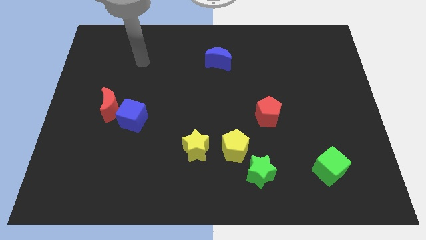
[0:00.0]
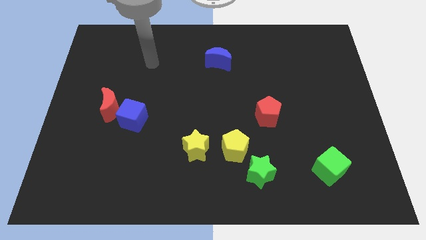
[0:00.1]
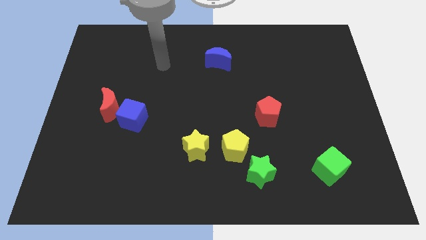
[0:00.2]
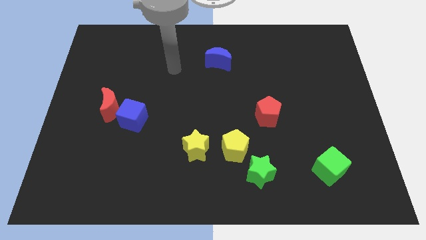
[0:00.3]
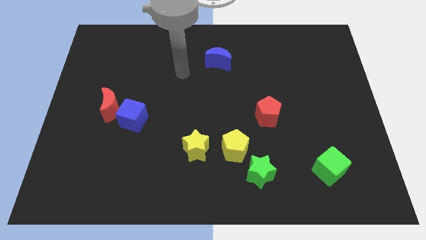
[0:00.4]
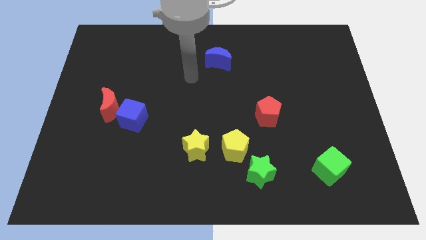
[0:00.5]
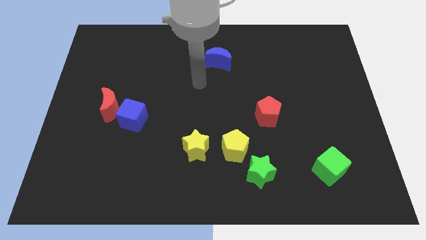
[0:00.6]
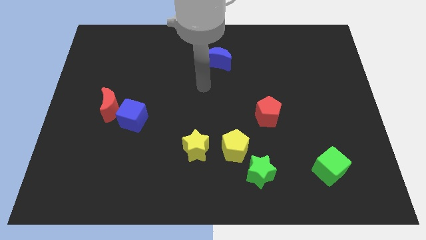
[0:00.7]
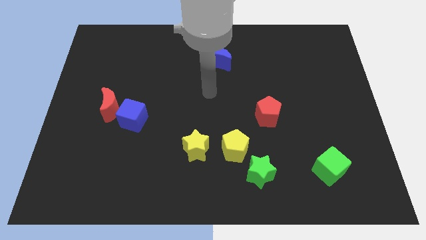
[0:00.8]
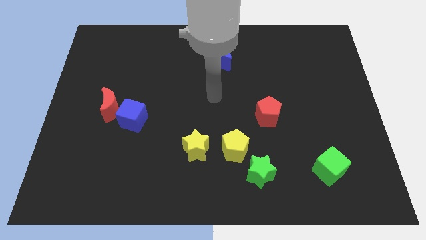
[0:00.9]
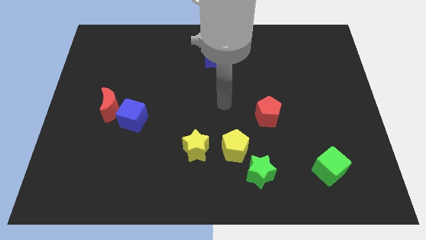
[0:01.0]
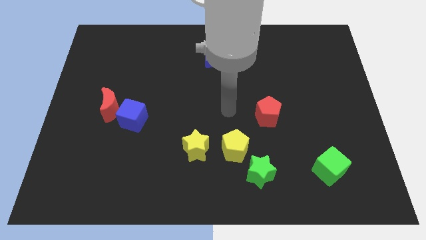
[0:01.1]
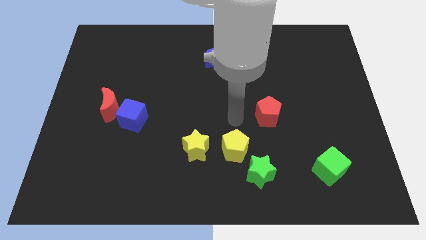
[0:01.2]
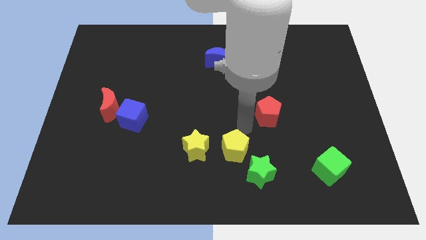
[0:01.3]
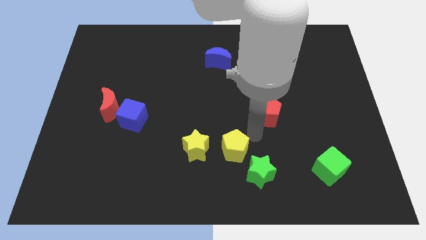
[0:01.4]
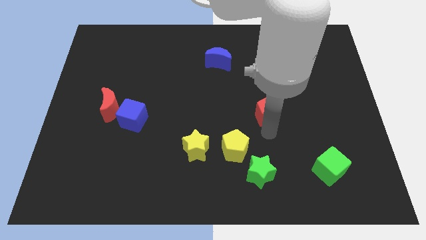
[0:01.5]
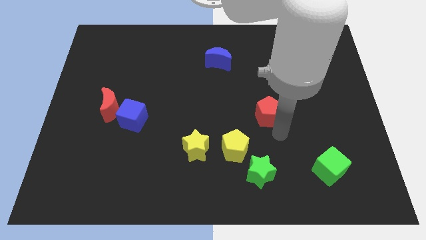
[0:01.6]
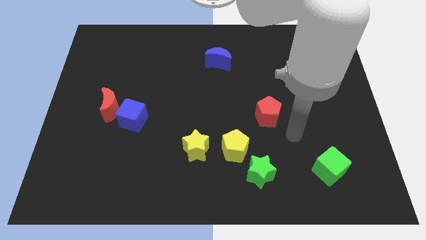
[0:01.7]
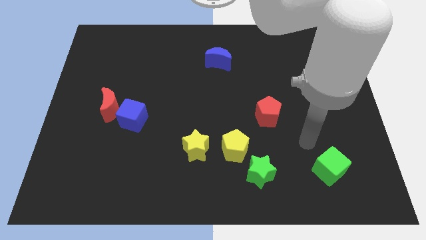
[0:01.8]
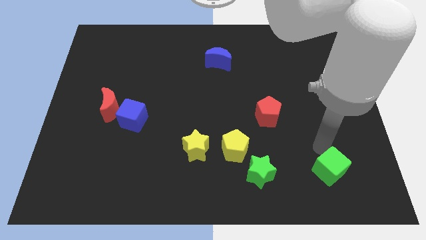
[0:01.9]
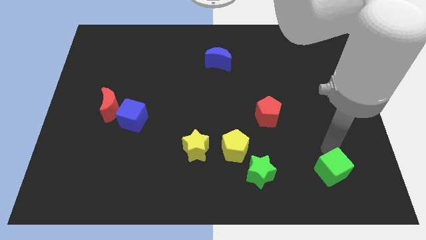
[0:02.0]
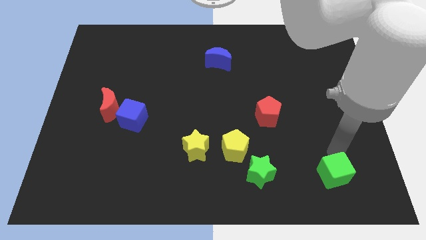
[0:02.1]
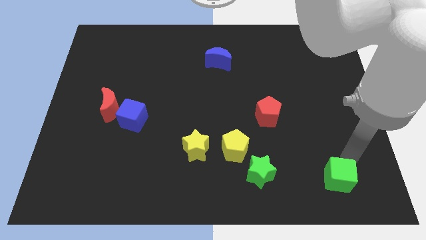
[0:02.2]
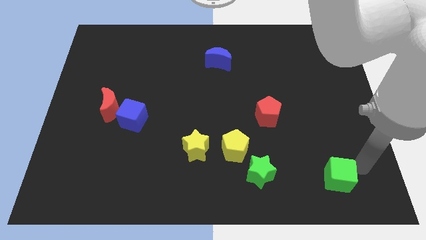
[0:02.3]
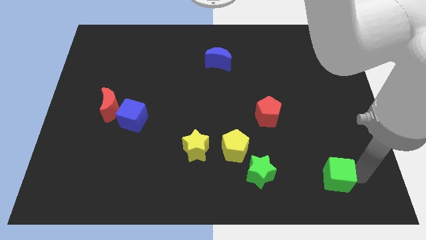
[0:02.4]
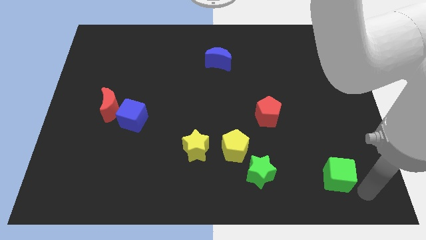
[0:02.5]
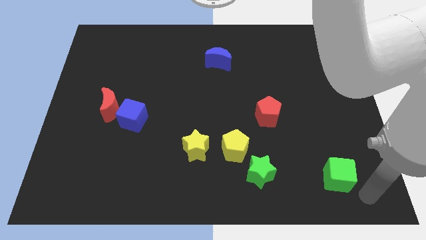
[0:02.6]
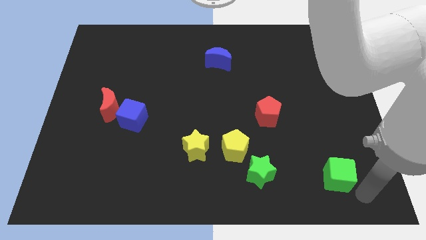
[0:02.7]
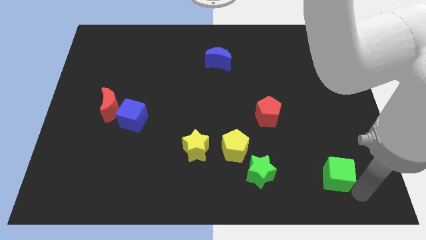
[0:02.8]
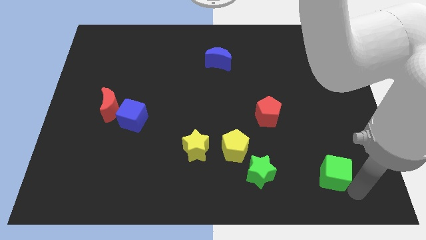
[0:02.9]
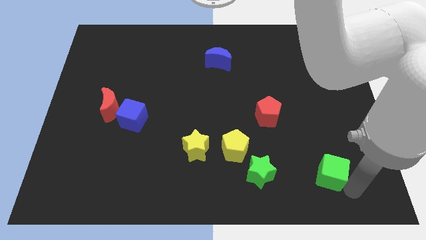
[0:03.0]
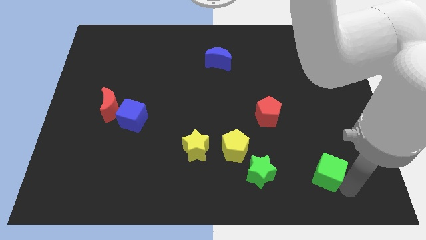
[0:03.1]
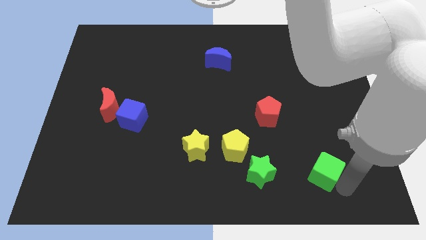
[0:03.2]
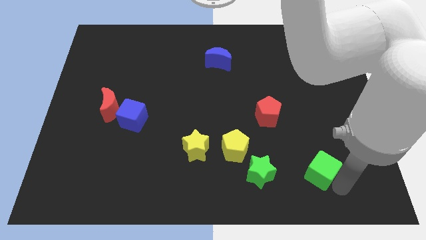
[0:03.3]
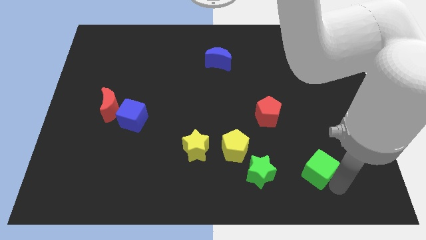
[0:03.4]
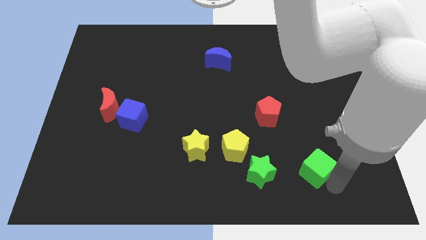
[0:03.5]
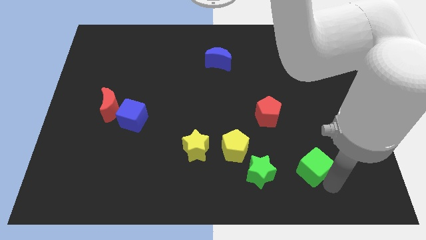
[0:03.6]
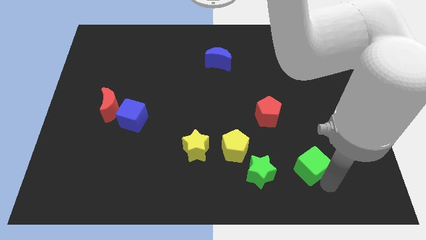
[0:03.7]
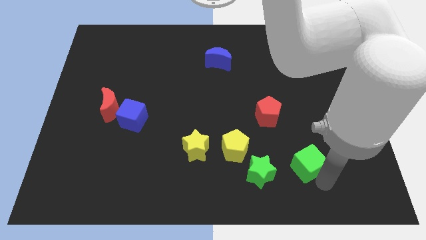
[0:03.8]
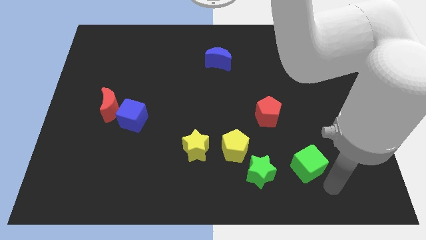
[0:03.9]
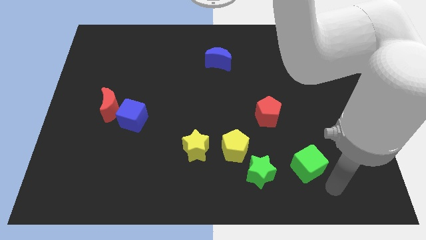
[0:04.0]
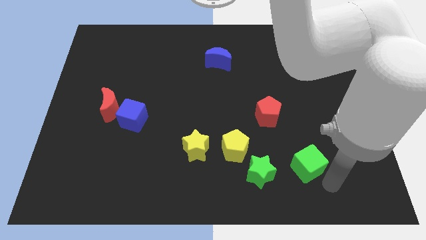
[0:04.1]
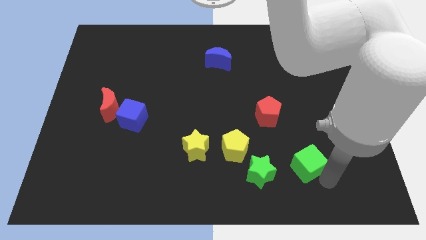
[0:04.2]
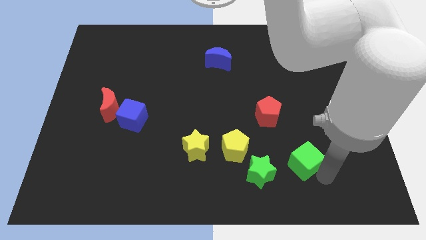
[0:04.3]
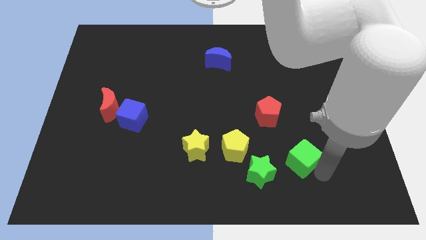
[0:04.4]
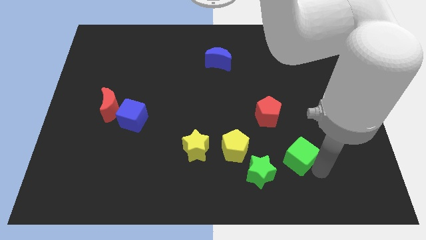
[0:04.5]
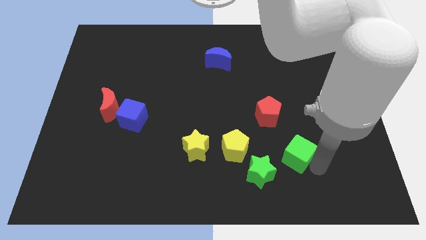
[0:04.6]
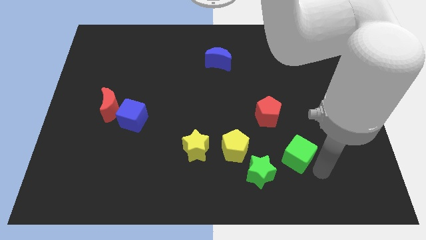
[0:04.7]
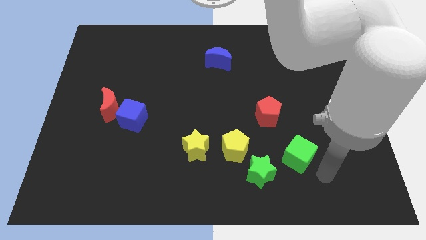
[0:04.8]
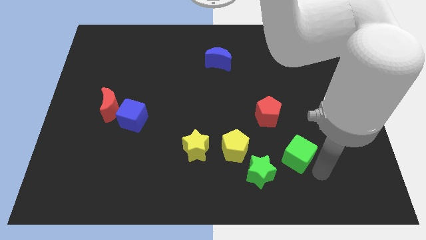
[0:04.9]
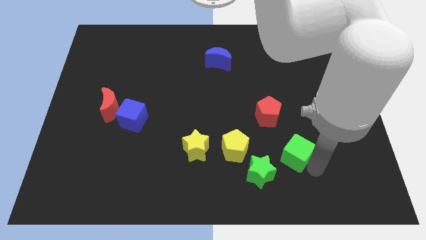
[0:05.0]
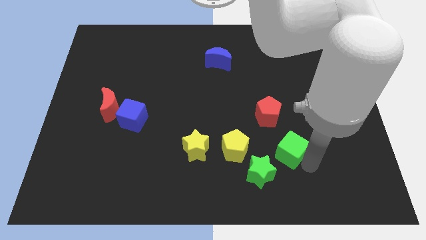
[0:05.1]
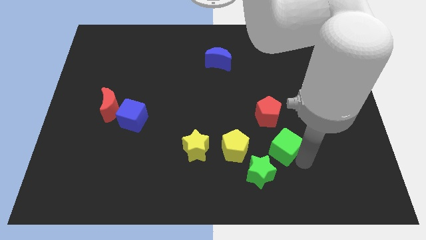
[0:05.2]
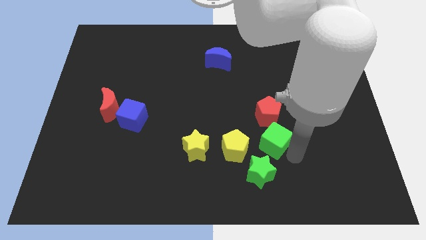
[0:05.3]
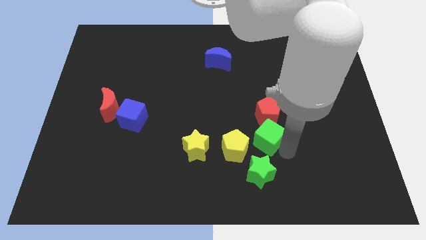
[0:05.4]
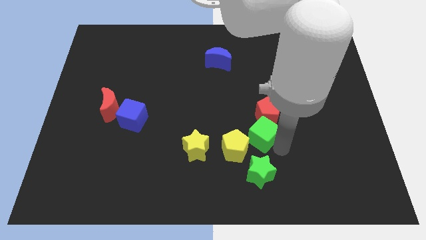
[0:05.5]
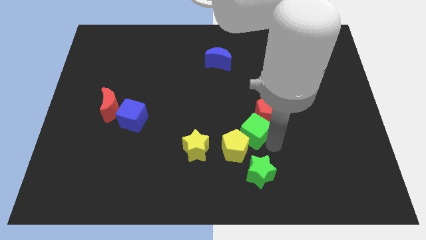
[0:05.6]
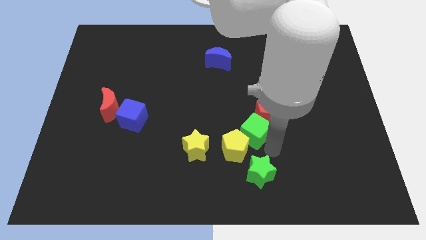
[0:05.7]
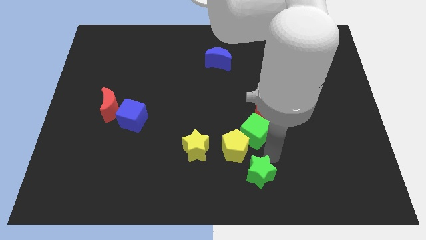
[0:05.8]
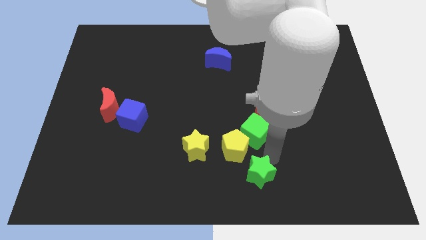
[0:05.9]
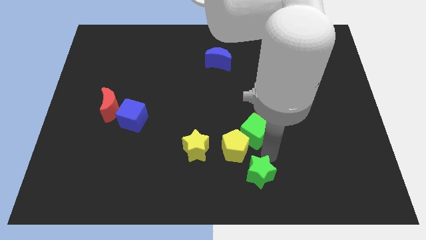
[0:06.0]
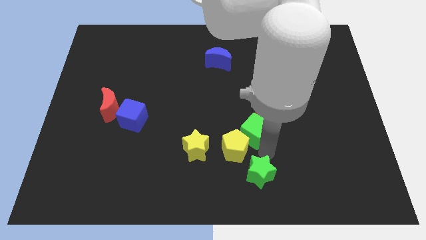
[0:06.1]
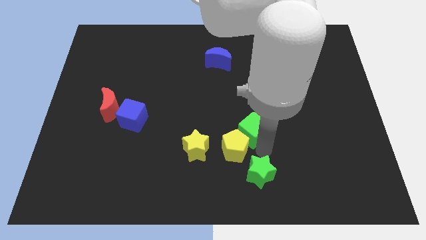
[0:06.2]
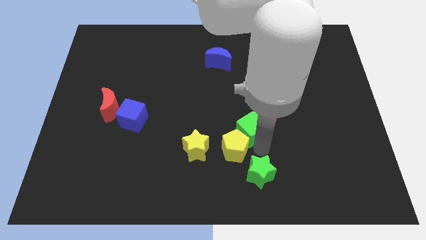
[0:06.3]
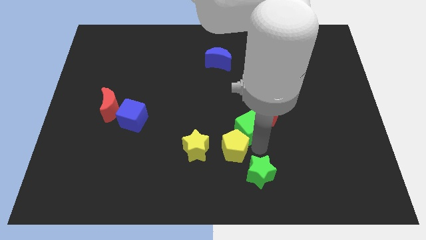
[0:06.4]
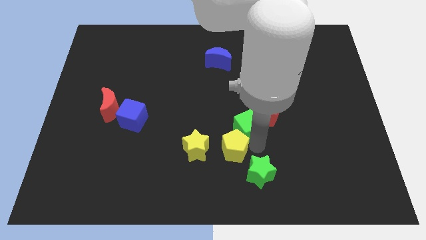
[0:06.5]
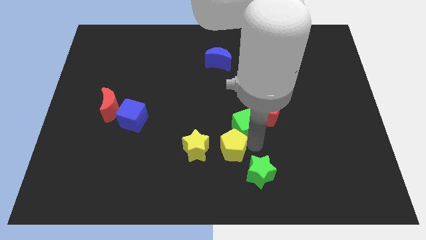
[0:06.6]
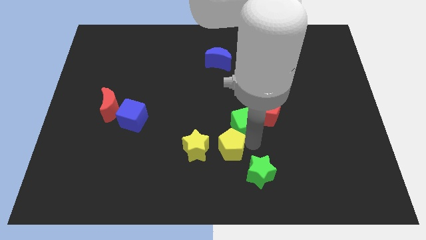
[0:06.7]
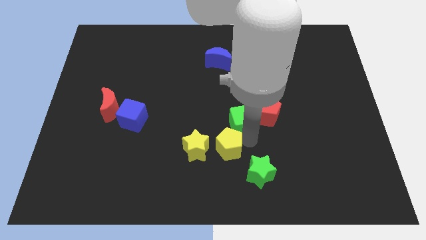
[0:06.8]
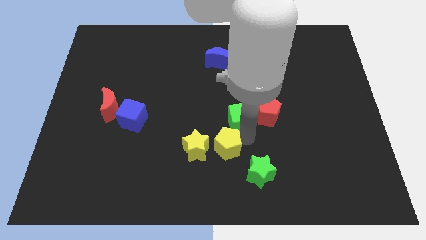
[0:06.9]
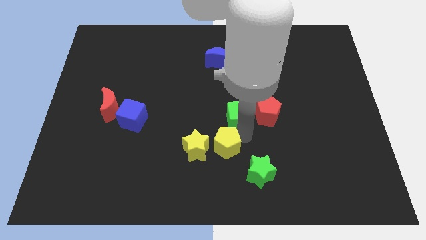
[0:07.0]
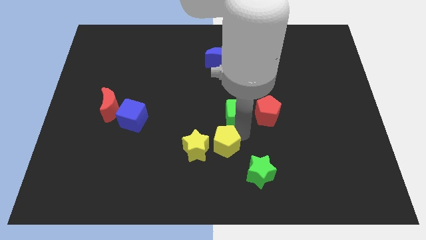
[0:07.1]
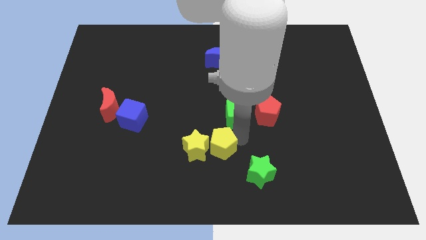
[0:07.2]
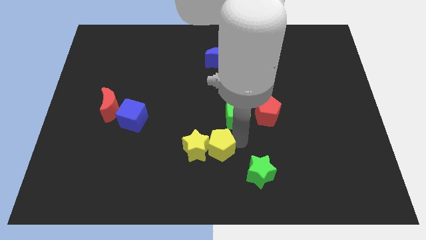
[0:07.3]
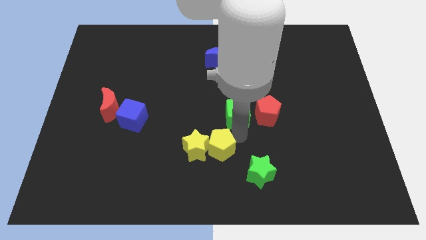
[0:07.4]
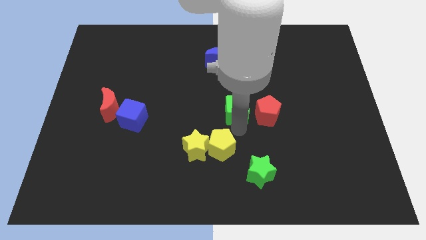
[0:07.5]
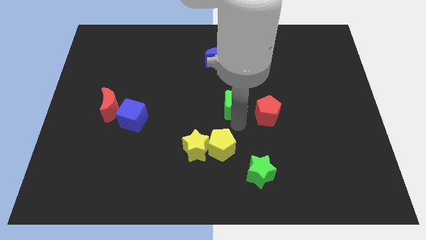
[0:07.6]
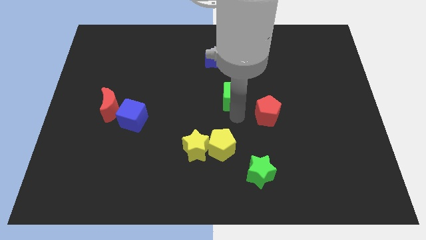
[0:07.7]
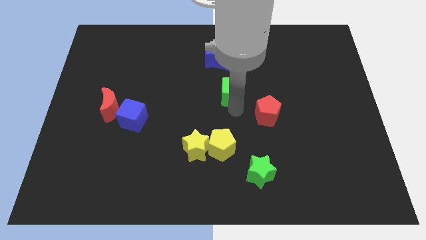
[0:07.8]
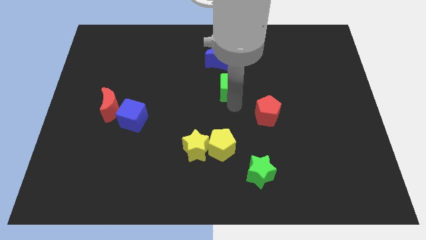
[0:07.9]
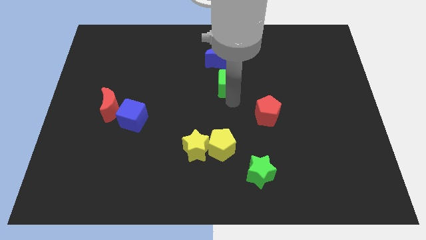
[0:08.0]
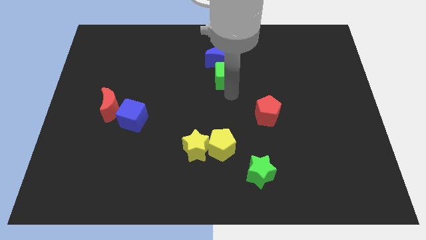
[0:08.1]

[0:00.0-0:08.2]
move the green cube next to the blue moon

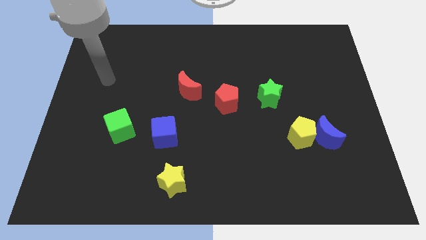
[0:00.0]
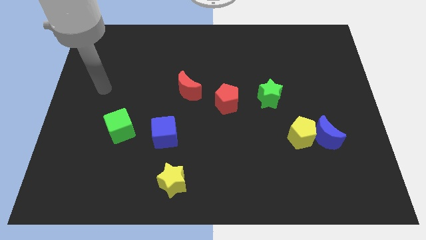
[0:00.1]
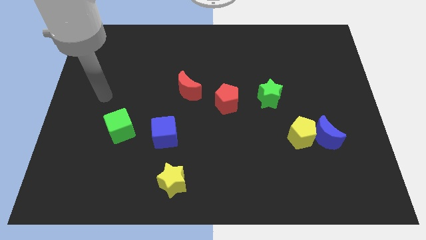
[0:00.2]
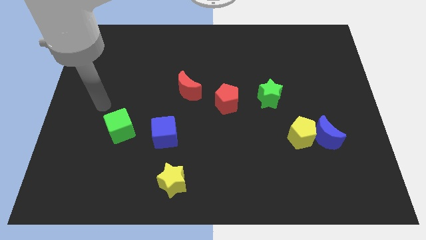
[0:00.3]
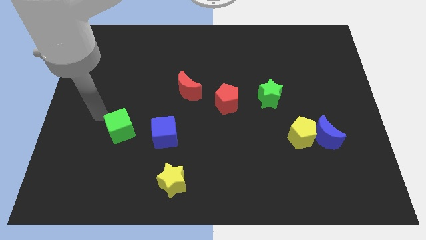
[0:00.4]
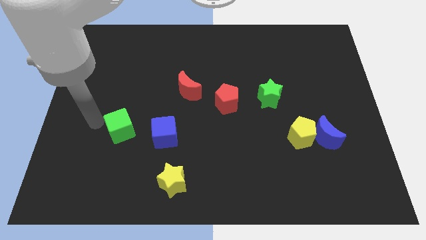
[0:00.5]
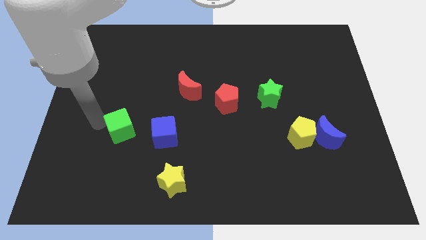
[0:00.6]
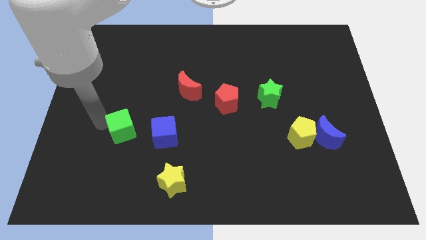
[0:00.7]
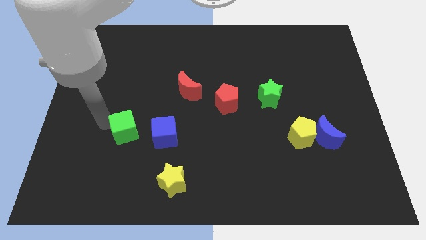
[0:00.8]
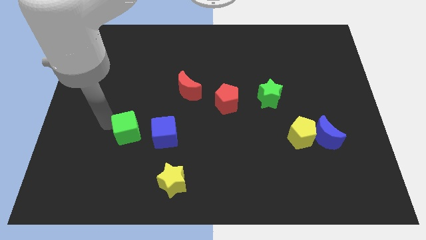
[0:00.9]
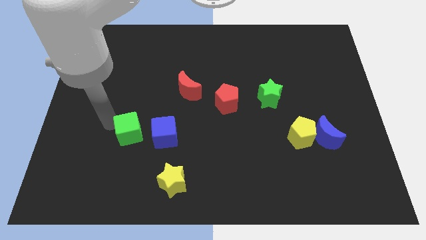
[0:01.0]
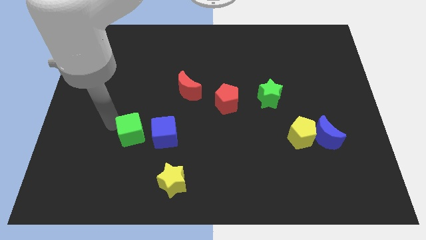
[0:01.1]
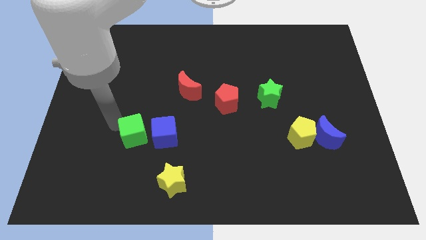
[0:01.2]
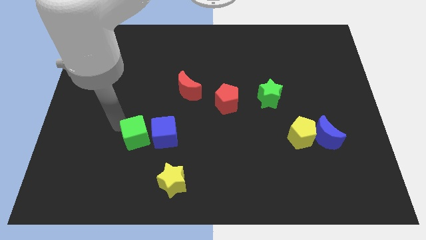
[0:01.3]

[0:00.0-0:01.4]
slide the green cube to the blue cube
